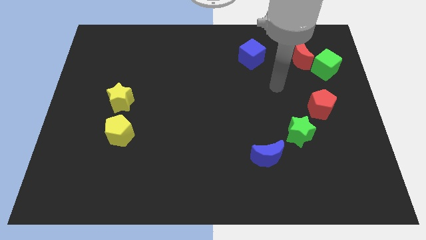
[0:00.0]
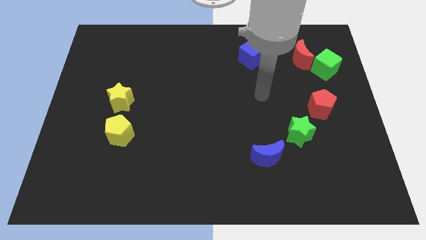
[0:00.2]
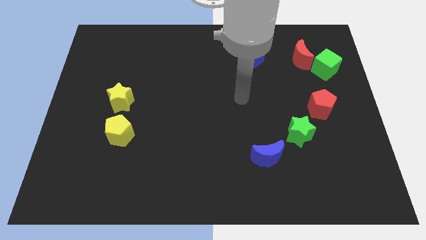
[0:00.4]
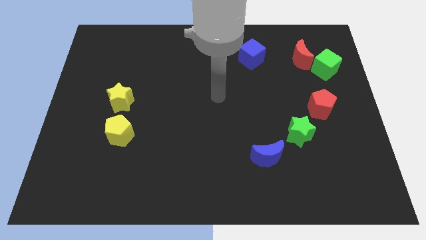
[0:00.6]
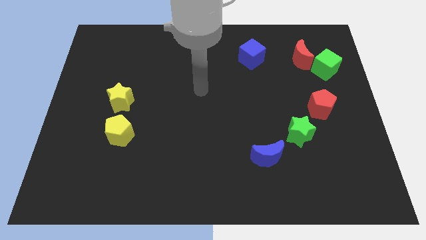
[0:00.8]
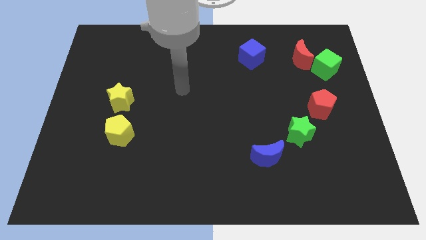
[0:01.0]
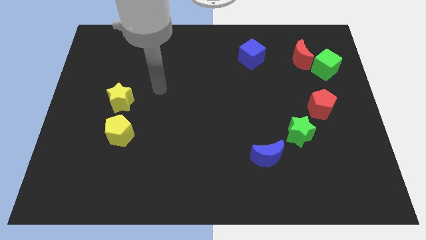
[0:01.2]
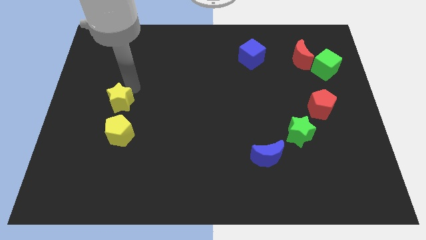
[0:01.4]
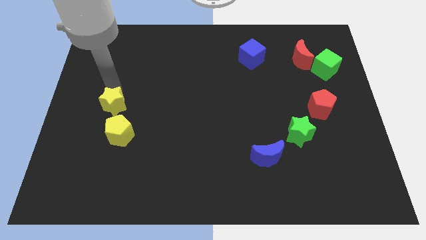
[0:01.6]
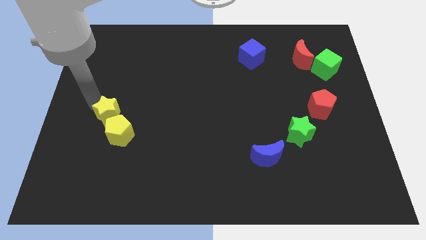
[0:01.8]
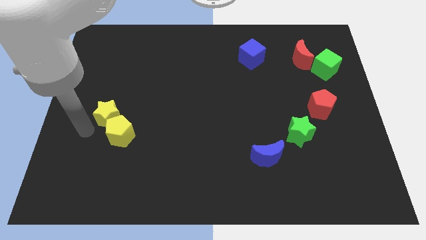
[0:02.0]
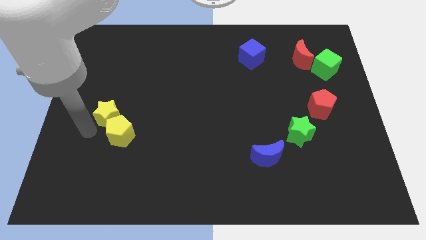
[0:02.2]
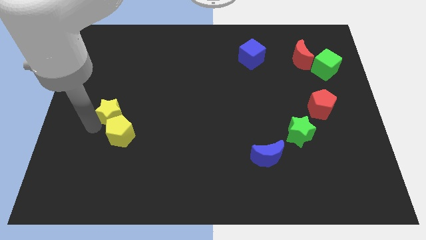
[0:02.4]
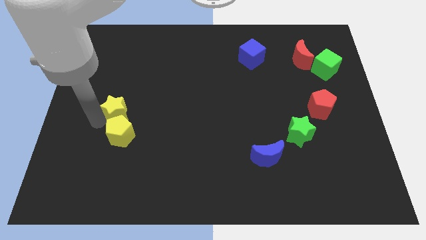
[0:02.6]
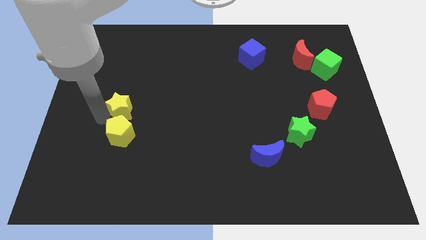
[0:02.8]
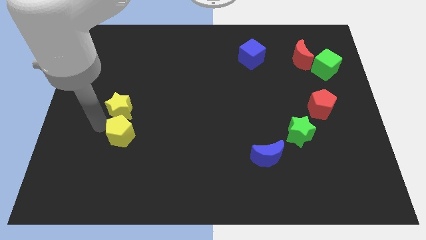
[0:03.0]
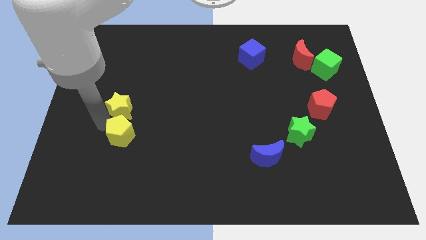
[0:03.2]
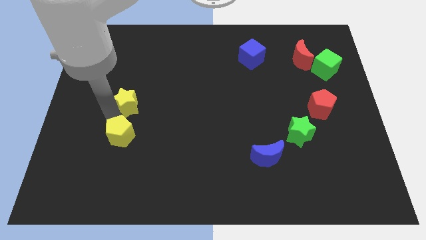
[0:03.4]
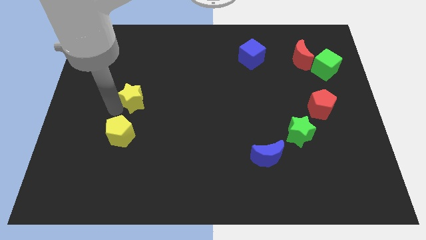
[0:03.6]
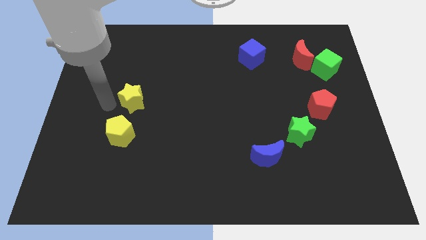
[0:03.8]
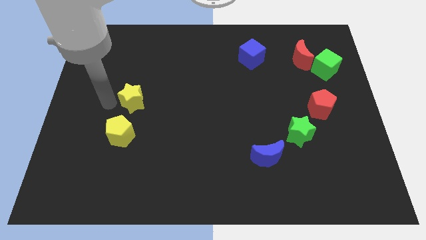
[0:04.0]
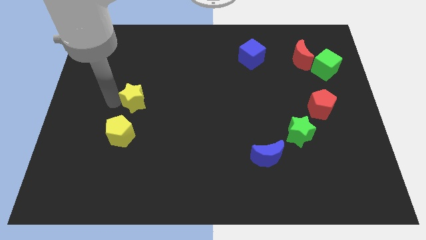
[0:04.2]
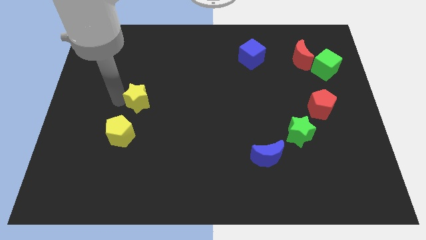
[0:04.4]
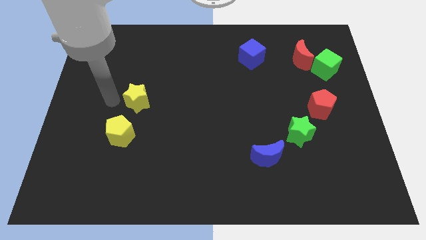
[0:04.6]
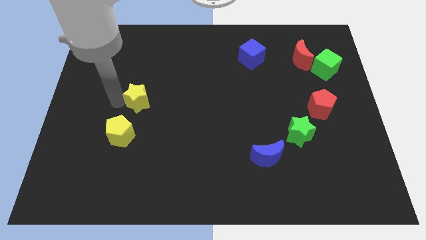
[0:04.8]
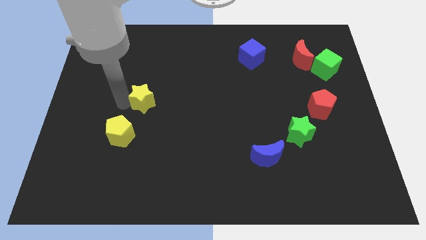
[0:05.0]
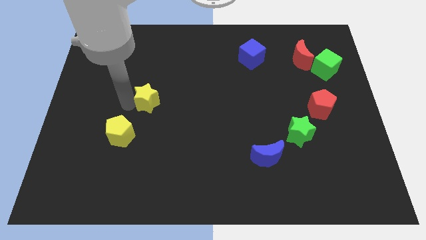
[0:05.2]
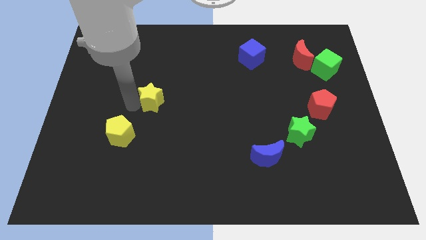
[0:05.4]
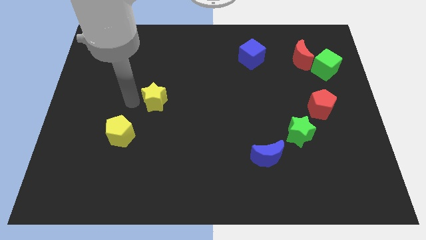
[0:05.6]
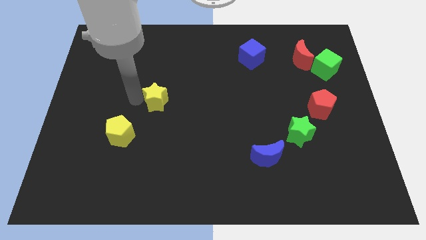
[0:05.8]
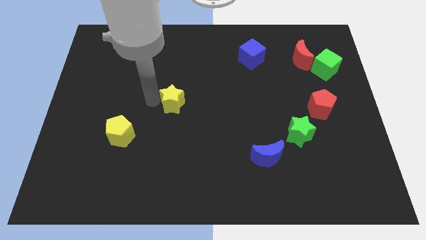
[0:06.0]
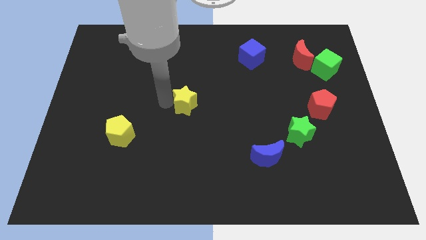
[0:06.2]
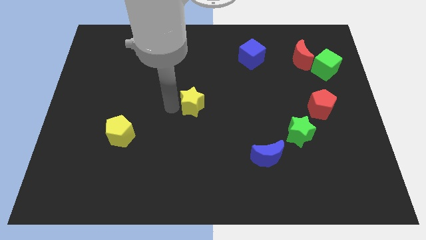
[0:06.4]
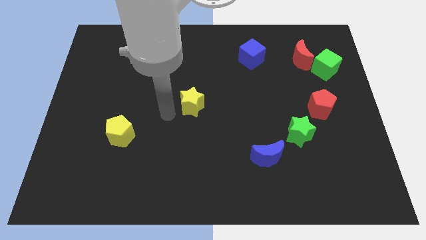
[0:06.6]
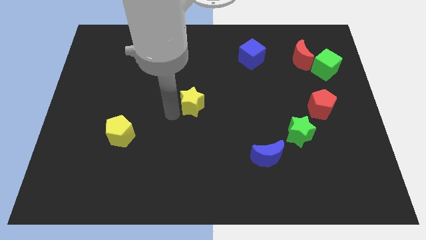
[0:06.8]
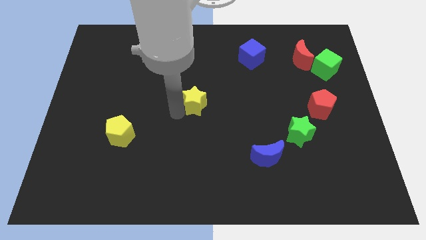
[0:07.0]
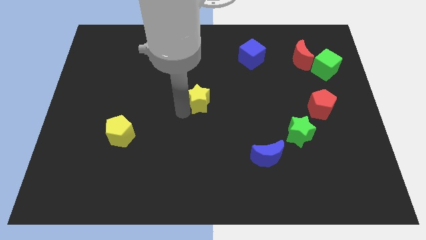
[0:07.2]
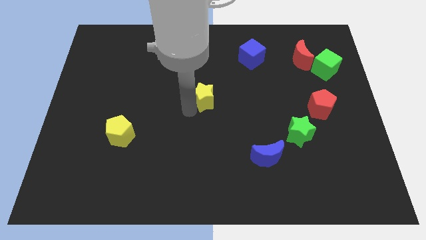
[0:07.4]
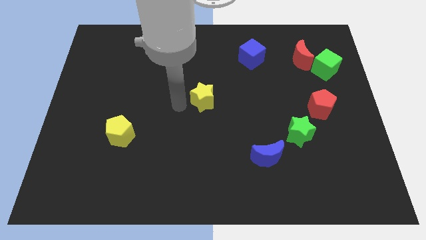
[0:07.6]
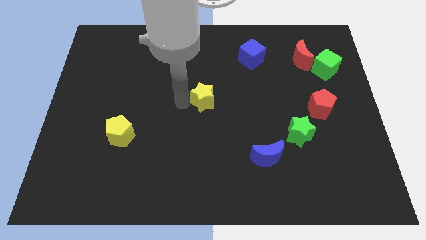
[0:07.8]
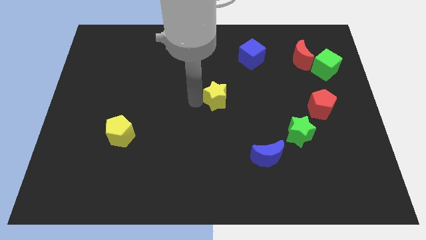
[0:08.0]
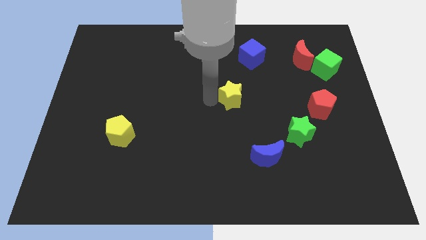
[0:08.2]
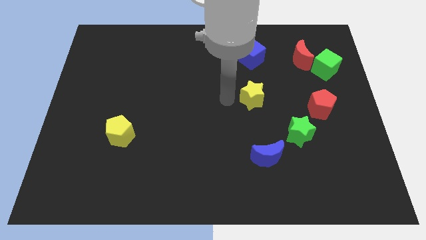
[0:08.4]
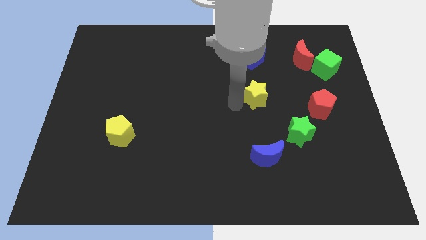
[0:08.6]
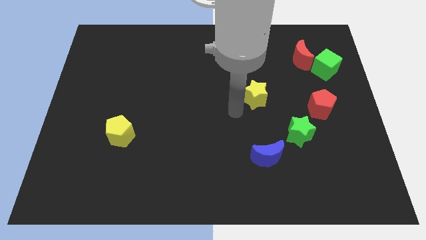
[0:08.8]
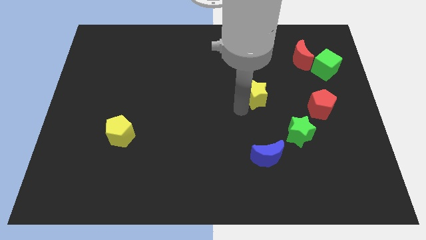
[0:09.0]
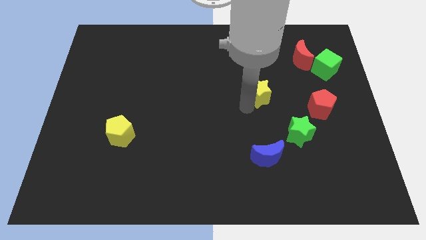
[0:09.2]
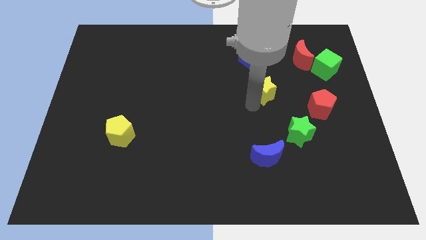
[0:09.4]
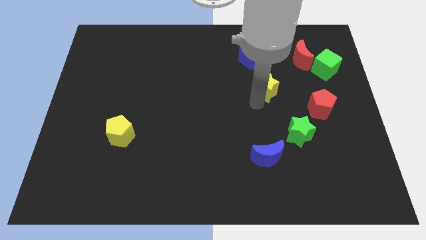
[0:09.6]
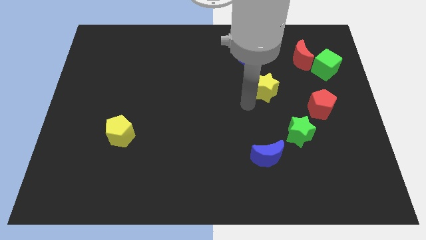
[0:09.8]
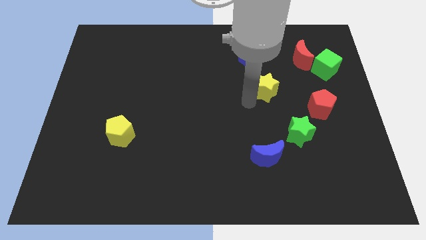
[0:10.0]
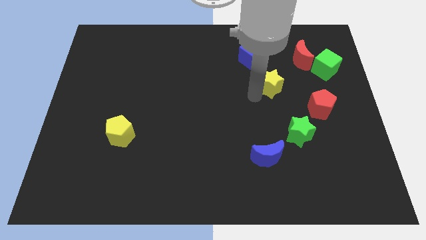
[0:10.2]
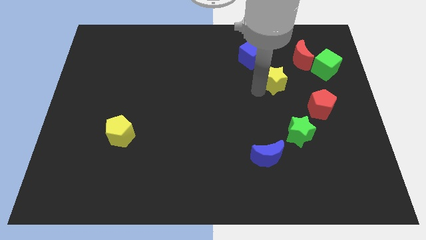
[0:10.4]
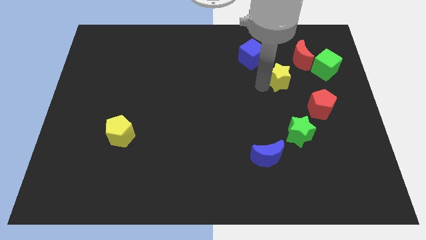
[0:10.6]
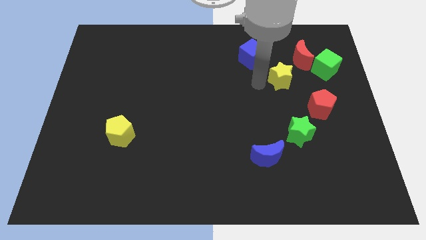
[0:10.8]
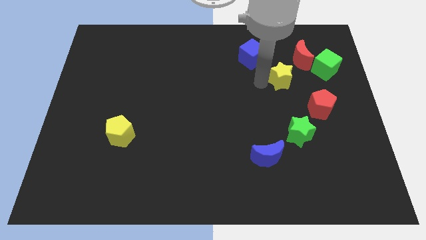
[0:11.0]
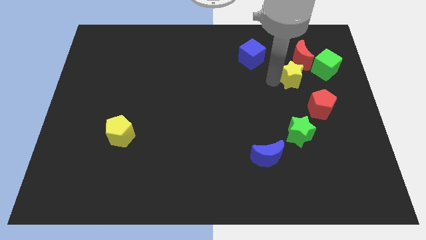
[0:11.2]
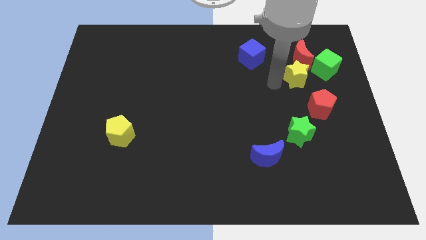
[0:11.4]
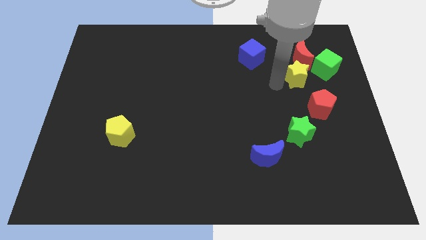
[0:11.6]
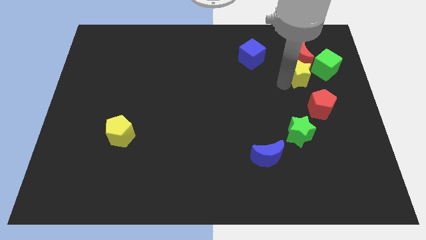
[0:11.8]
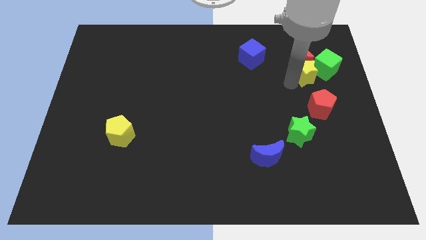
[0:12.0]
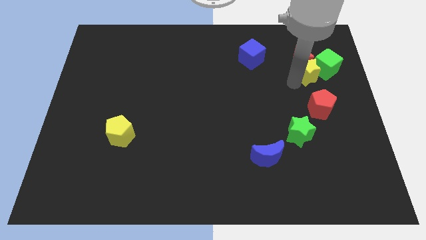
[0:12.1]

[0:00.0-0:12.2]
move the yellow star to the green cube

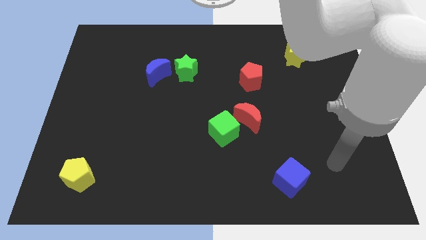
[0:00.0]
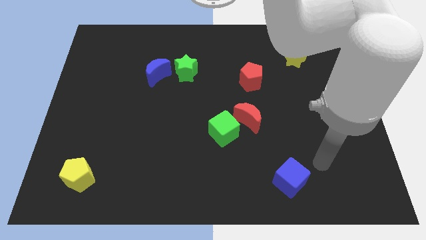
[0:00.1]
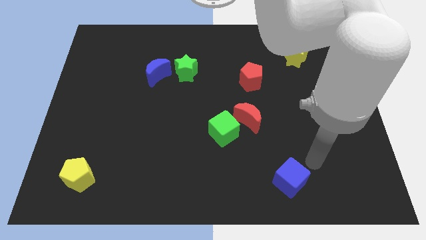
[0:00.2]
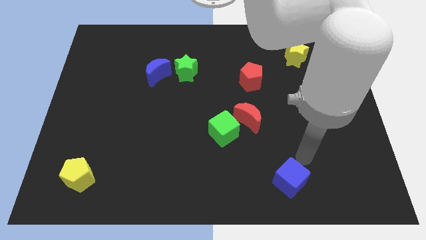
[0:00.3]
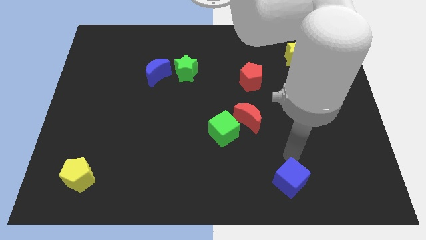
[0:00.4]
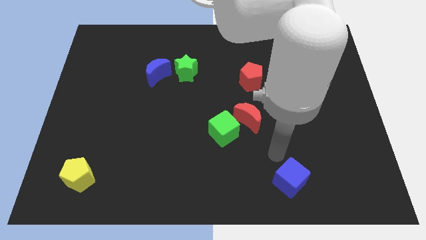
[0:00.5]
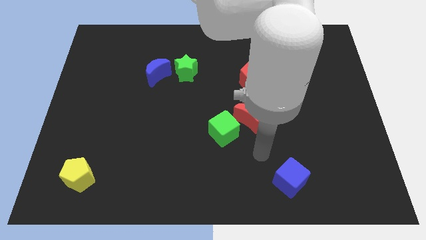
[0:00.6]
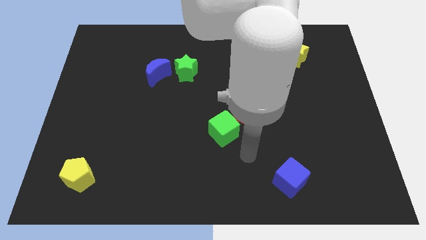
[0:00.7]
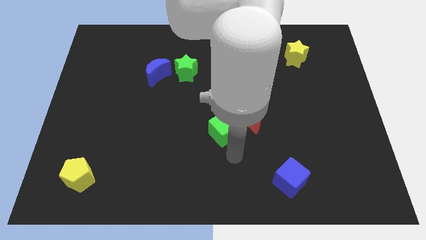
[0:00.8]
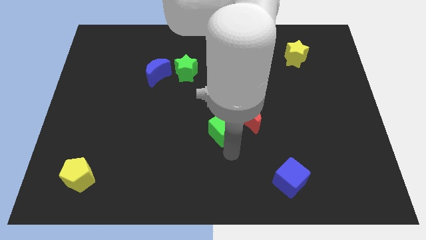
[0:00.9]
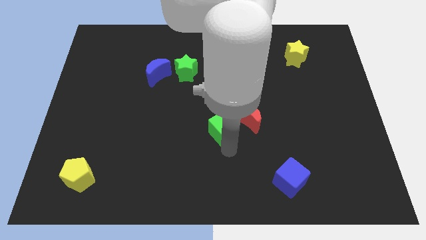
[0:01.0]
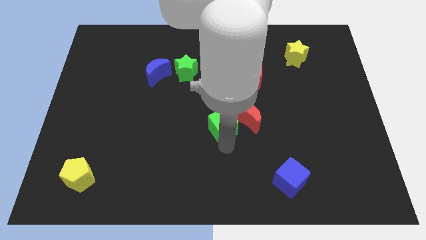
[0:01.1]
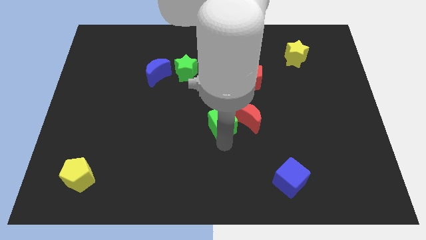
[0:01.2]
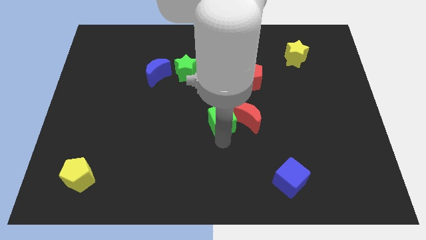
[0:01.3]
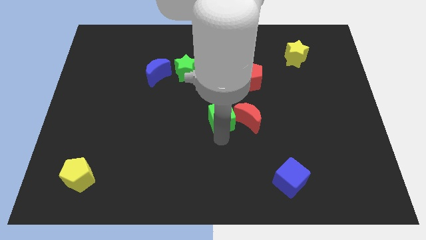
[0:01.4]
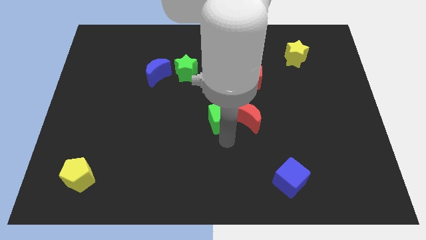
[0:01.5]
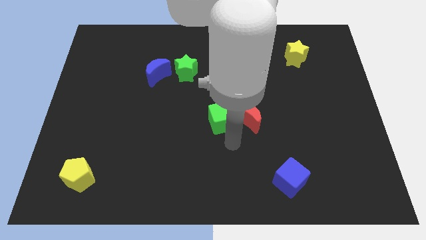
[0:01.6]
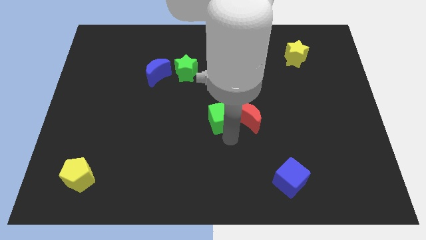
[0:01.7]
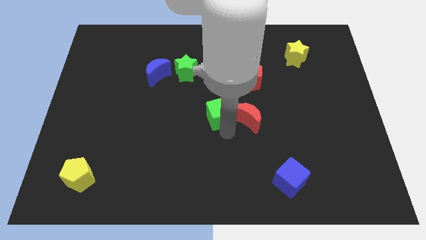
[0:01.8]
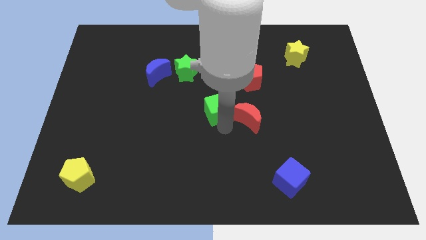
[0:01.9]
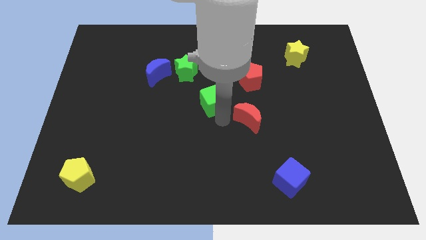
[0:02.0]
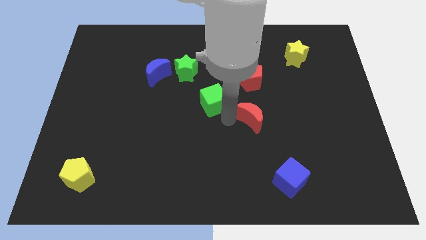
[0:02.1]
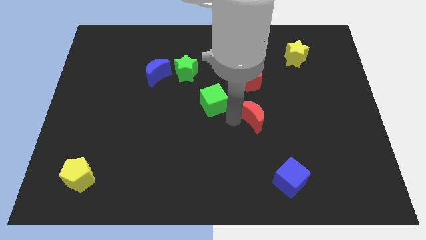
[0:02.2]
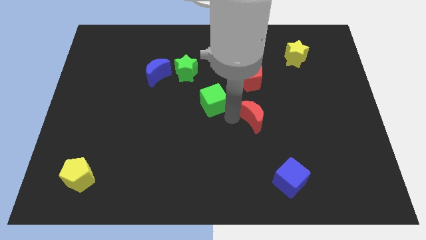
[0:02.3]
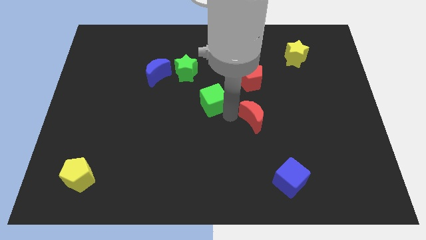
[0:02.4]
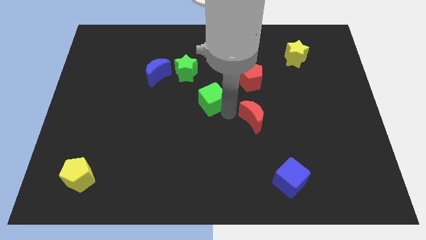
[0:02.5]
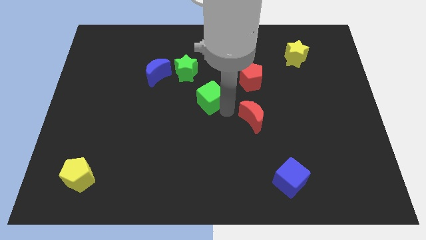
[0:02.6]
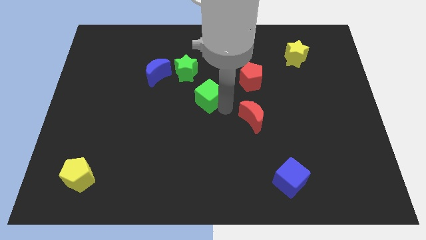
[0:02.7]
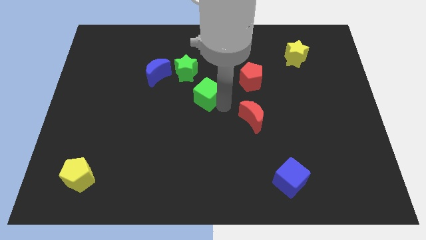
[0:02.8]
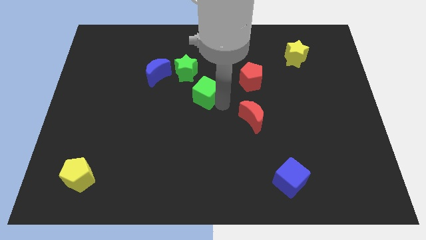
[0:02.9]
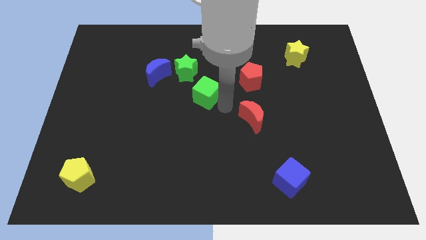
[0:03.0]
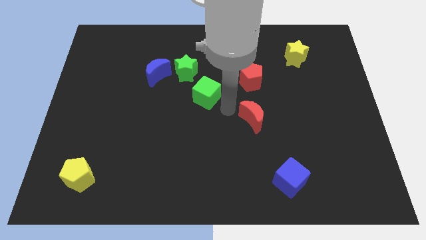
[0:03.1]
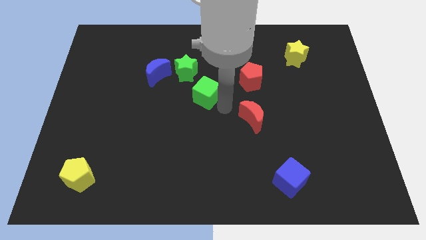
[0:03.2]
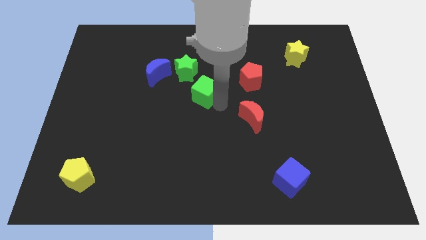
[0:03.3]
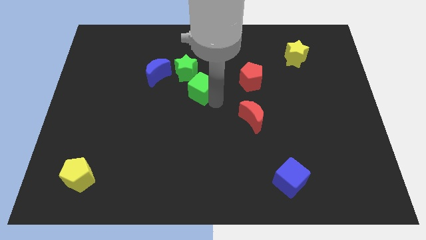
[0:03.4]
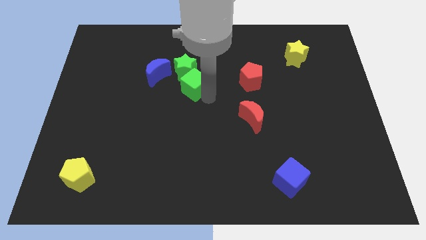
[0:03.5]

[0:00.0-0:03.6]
slide the green cube to the green star
